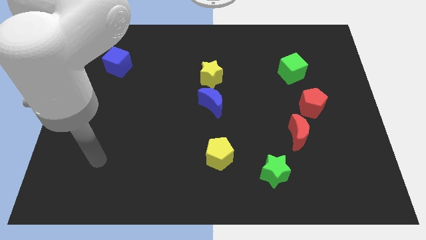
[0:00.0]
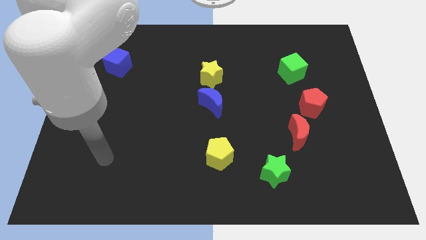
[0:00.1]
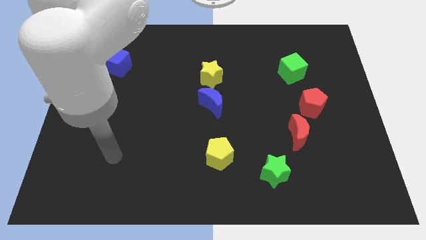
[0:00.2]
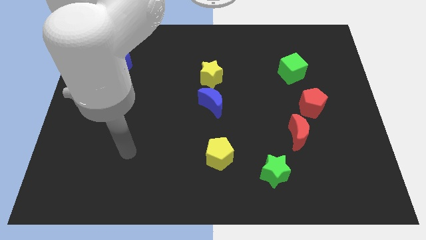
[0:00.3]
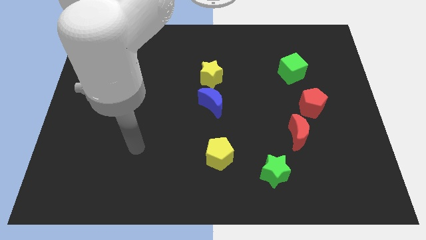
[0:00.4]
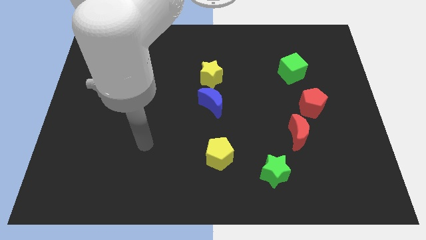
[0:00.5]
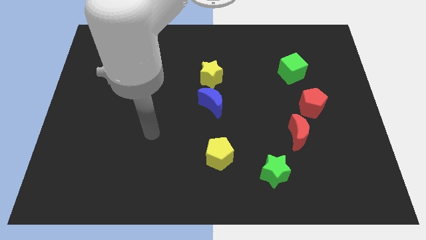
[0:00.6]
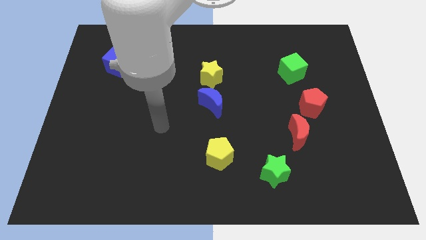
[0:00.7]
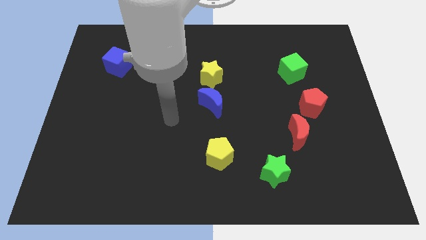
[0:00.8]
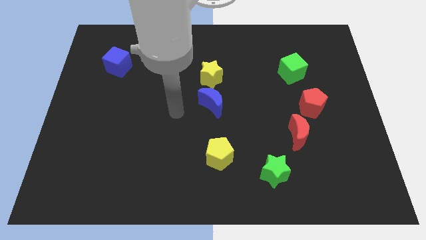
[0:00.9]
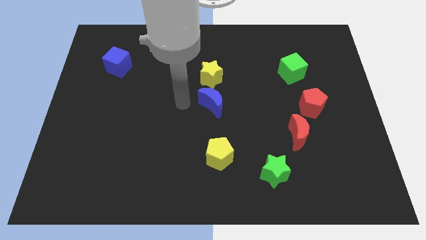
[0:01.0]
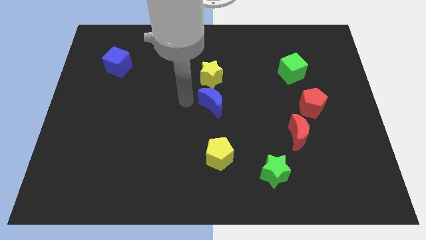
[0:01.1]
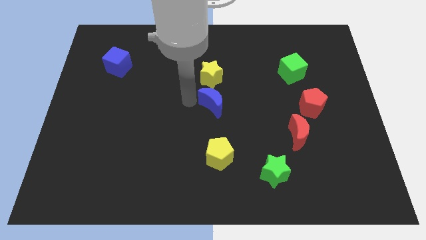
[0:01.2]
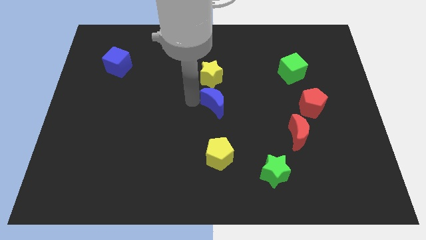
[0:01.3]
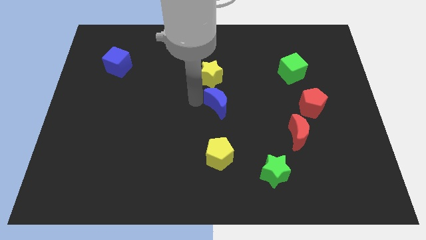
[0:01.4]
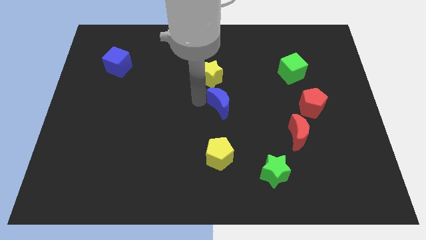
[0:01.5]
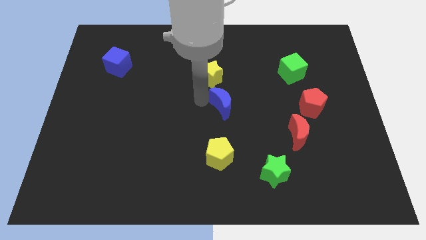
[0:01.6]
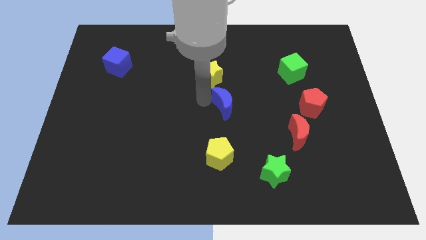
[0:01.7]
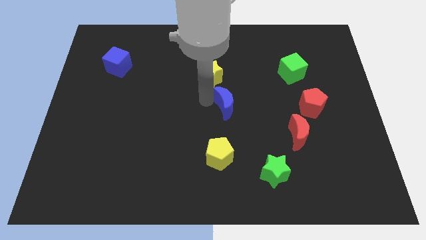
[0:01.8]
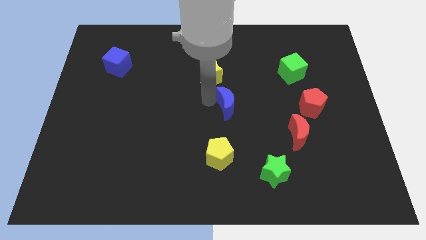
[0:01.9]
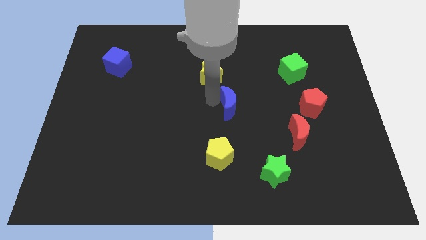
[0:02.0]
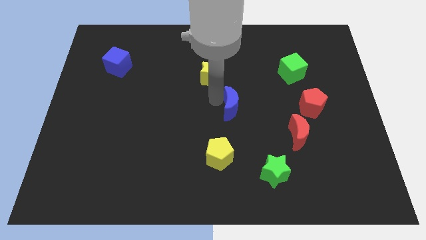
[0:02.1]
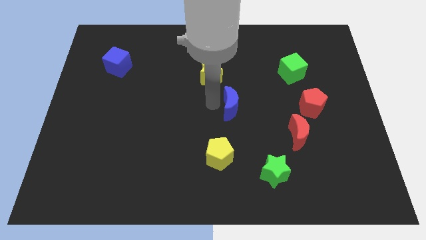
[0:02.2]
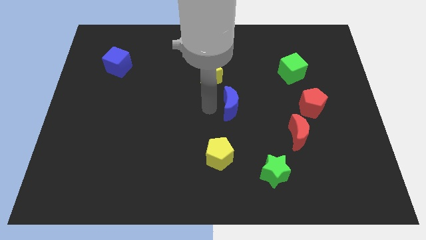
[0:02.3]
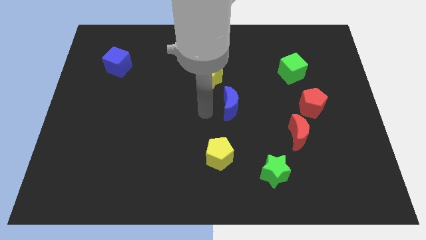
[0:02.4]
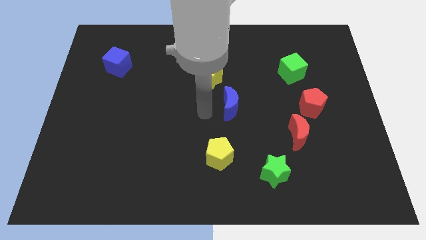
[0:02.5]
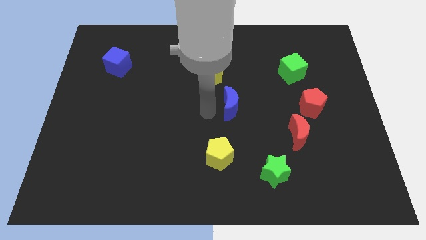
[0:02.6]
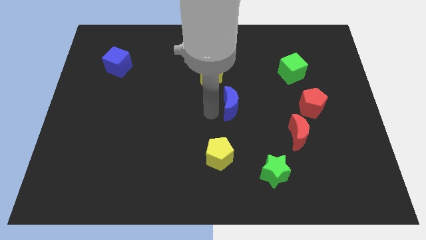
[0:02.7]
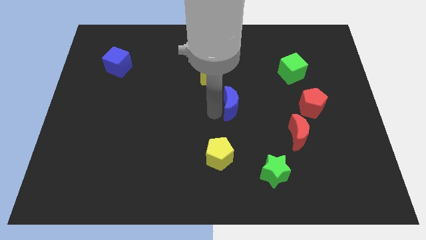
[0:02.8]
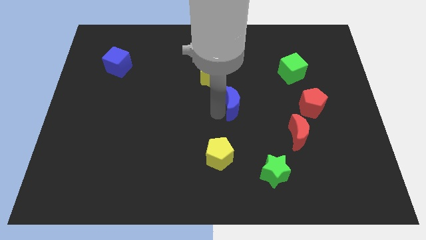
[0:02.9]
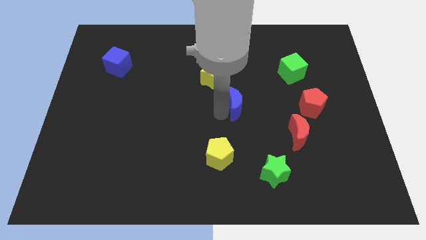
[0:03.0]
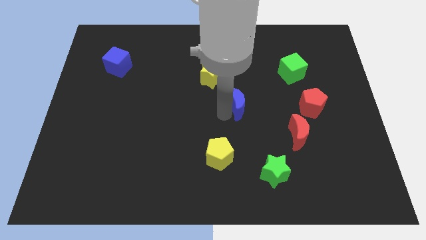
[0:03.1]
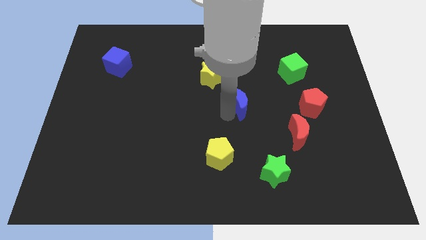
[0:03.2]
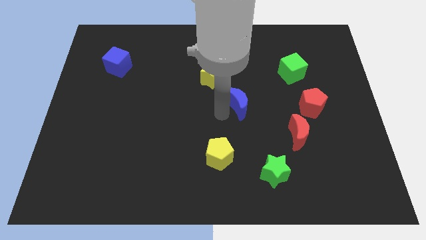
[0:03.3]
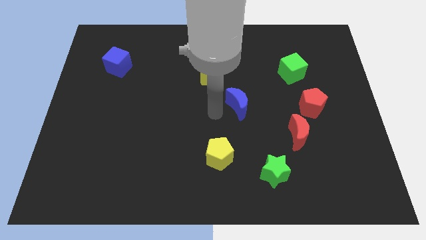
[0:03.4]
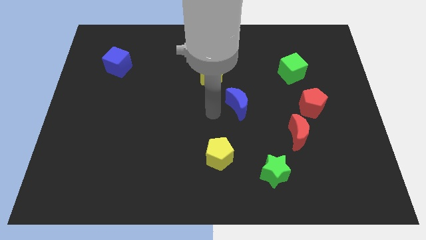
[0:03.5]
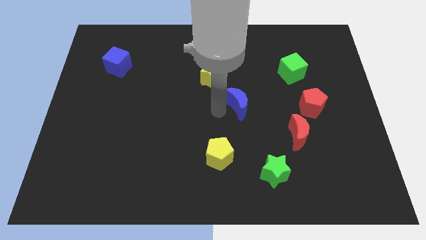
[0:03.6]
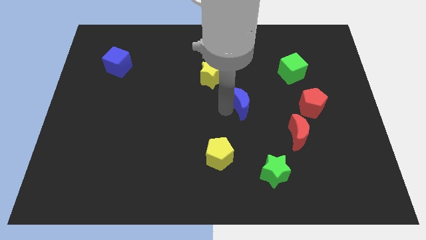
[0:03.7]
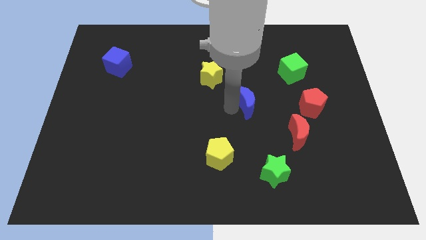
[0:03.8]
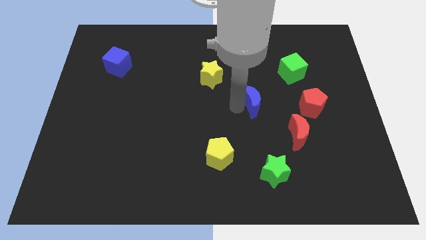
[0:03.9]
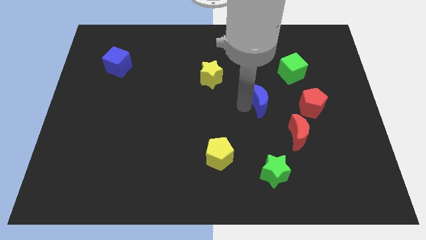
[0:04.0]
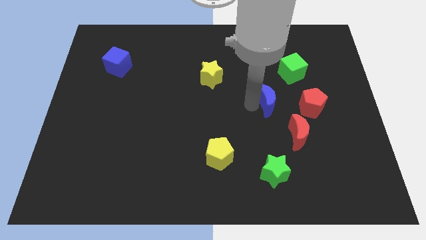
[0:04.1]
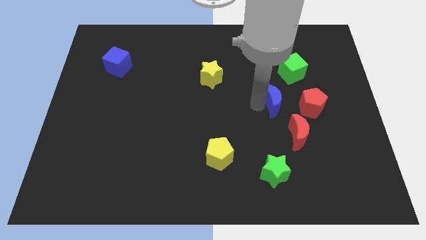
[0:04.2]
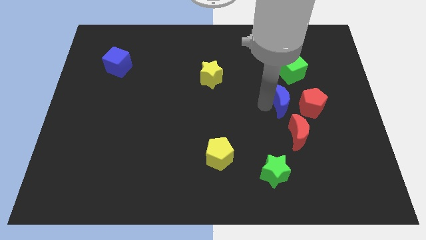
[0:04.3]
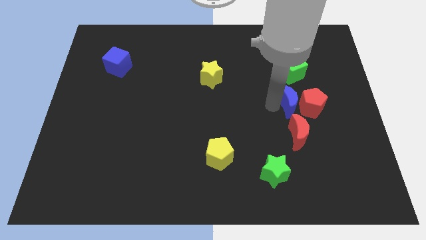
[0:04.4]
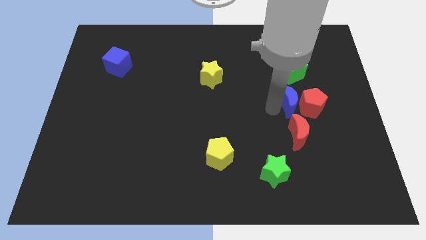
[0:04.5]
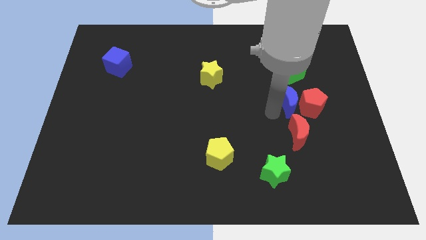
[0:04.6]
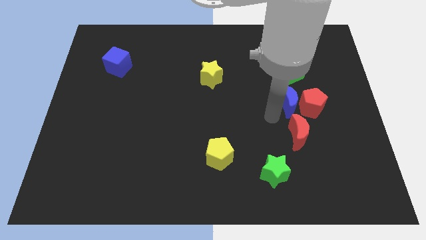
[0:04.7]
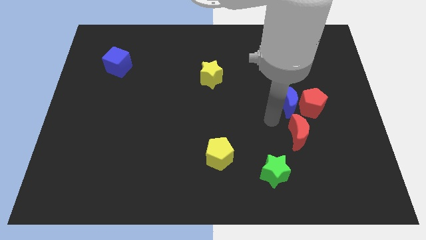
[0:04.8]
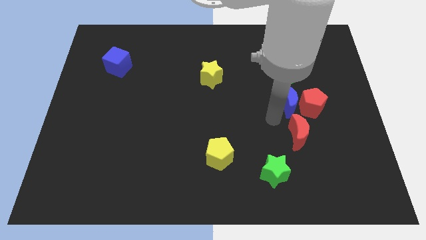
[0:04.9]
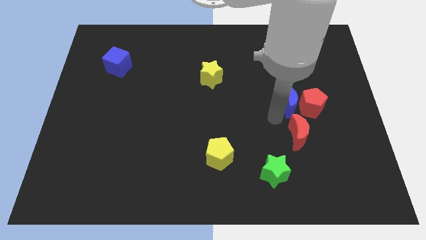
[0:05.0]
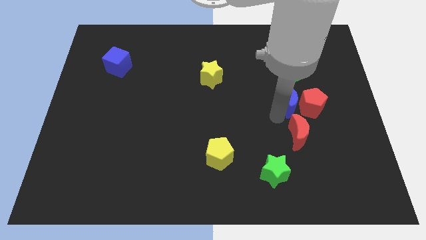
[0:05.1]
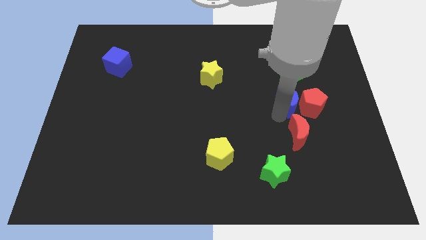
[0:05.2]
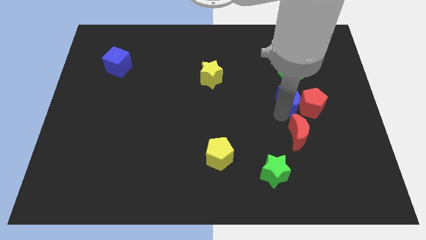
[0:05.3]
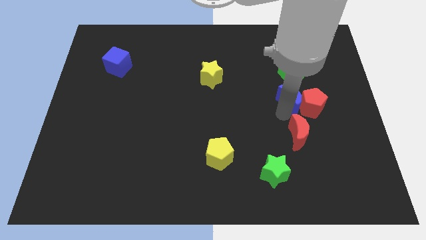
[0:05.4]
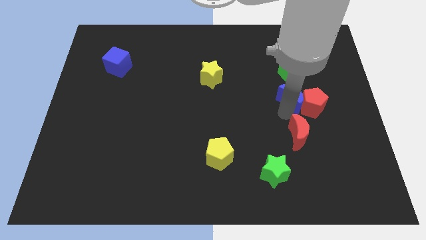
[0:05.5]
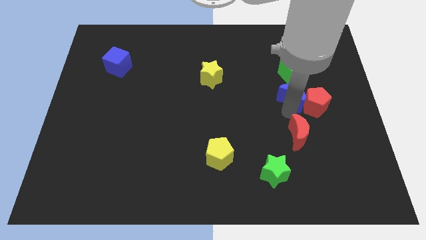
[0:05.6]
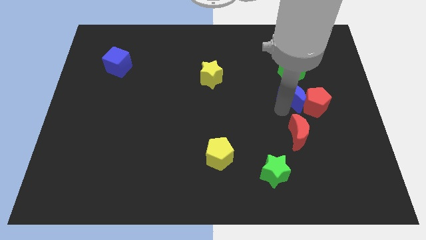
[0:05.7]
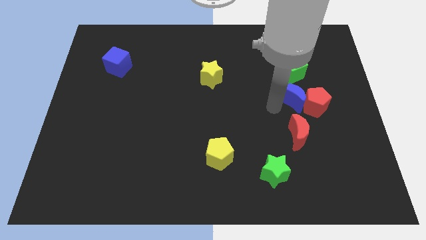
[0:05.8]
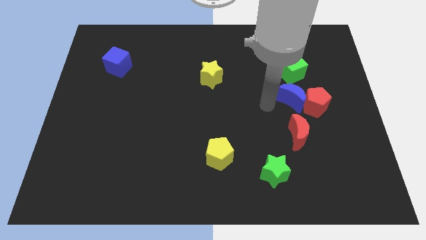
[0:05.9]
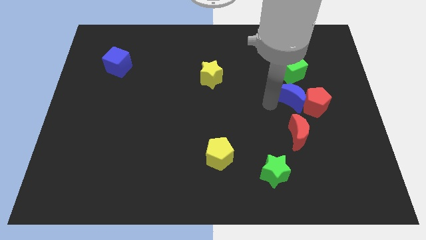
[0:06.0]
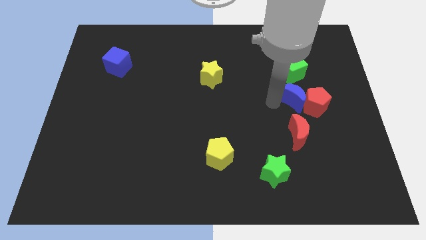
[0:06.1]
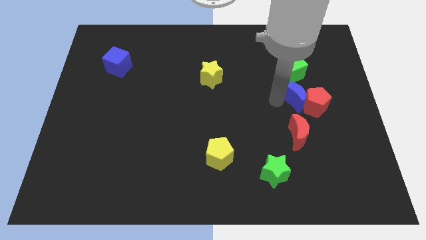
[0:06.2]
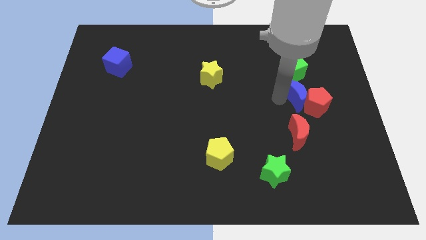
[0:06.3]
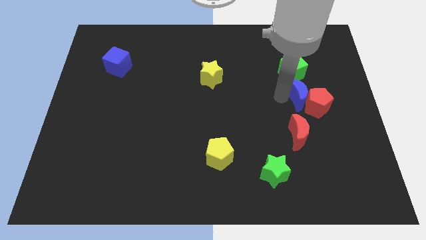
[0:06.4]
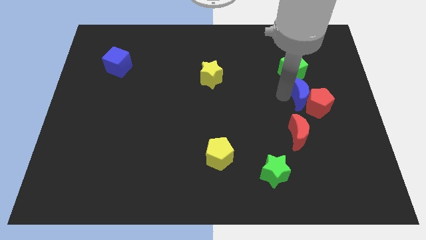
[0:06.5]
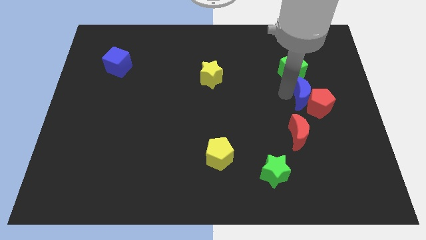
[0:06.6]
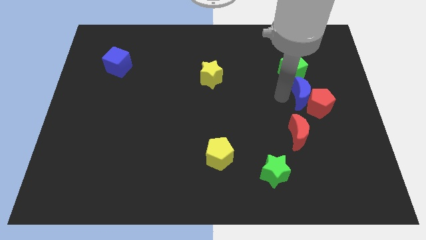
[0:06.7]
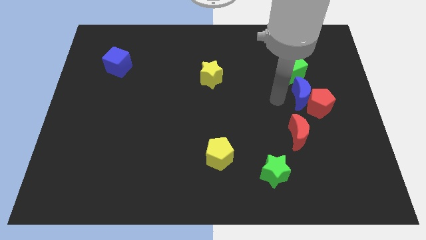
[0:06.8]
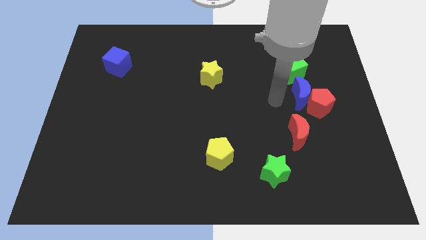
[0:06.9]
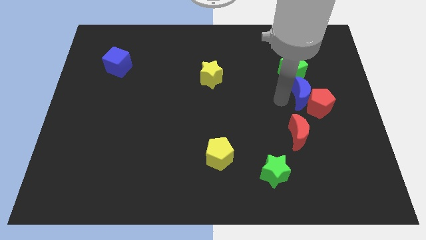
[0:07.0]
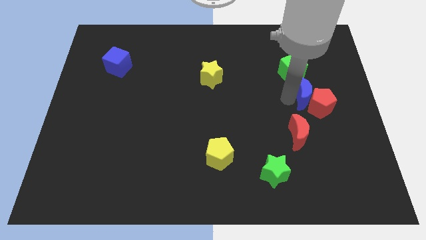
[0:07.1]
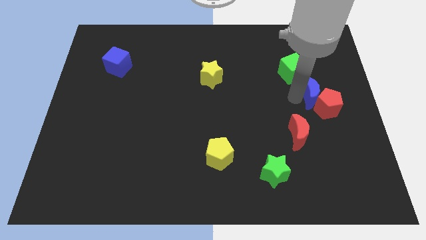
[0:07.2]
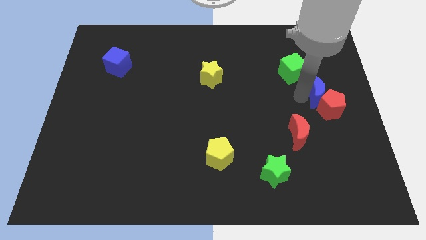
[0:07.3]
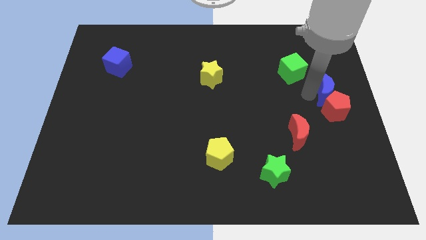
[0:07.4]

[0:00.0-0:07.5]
move the blue moon to the center right
